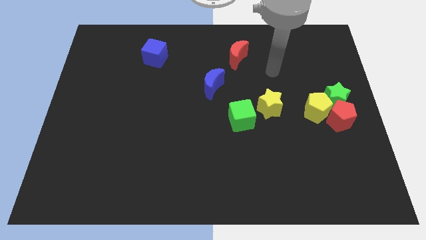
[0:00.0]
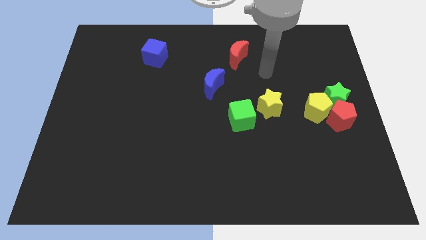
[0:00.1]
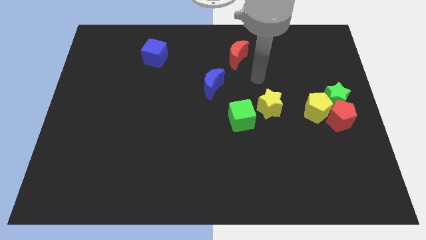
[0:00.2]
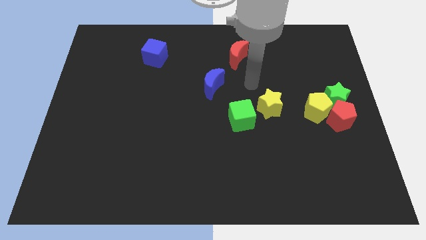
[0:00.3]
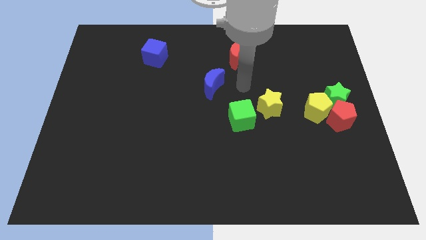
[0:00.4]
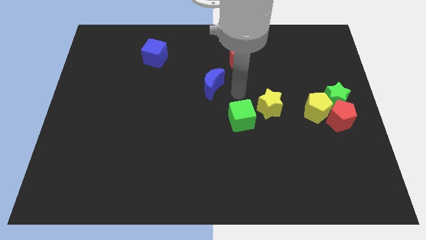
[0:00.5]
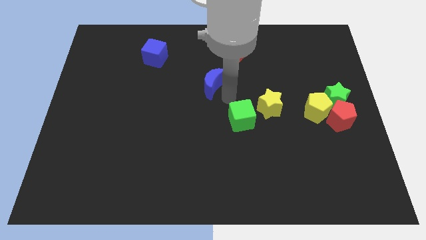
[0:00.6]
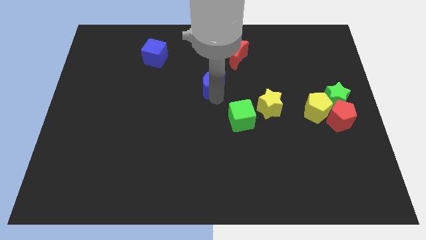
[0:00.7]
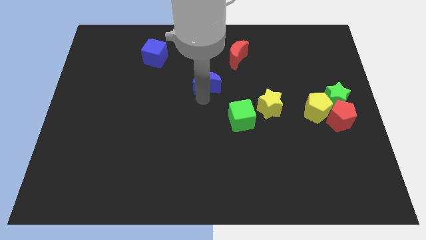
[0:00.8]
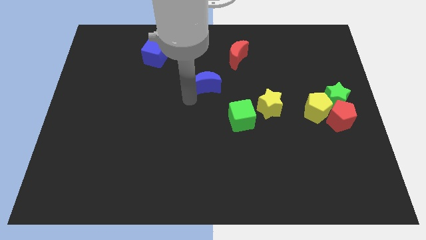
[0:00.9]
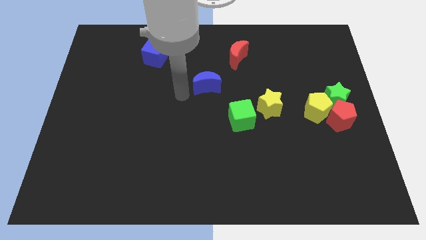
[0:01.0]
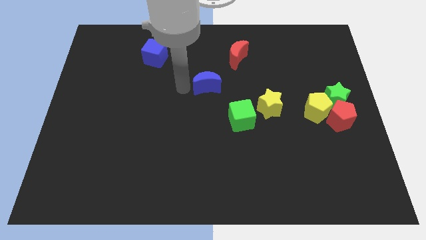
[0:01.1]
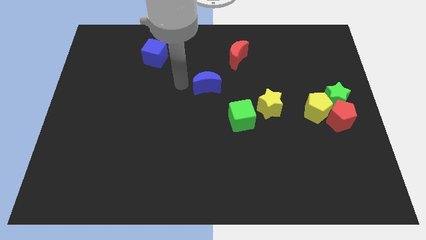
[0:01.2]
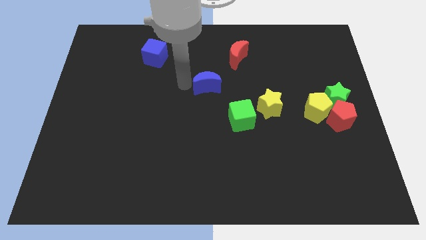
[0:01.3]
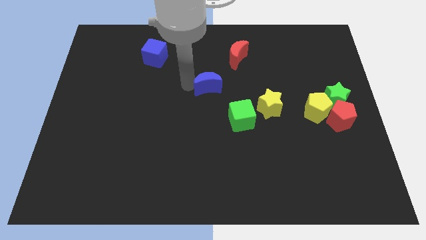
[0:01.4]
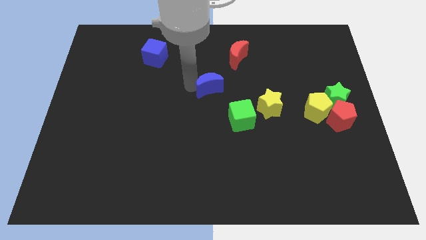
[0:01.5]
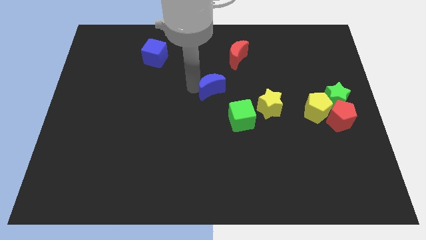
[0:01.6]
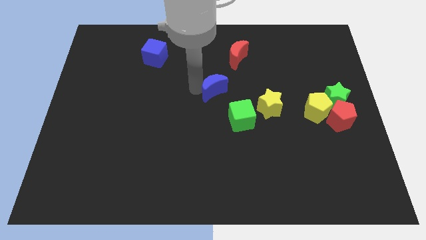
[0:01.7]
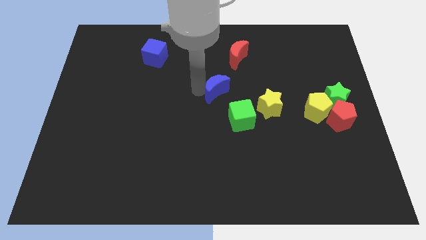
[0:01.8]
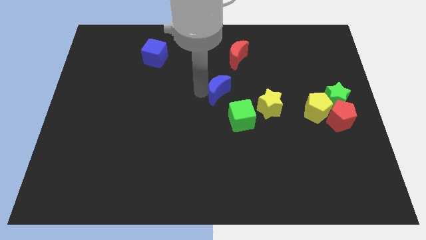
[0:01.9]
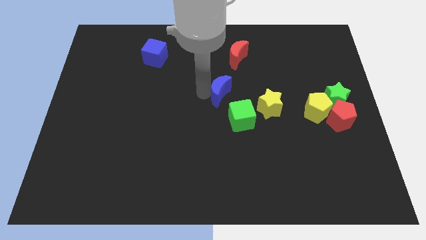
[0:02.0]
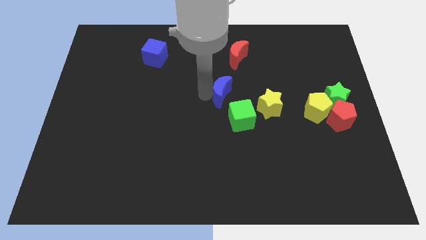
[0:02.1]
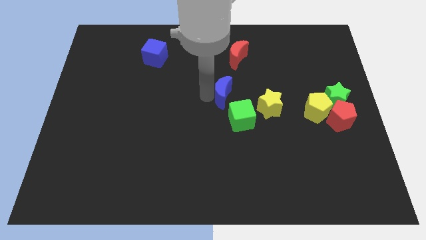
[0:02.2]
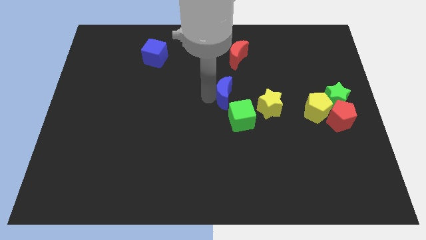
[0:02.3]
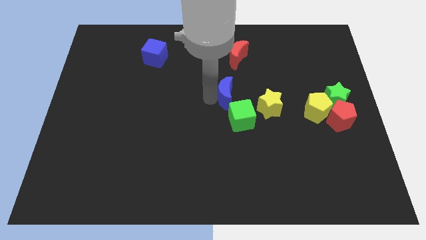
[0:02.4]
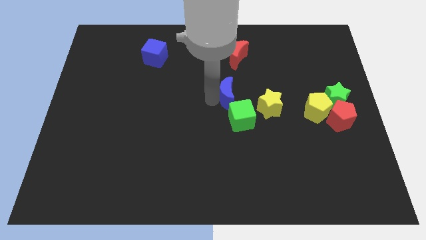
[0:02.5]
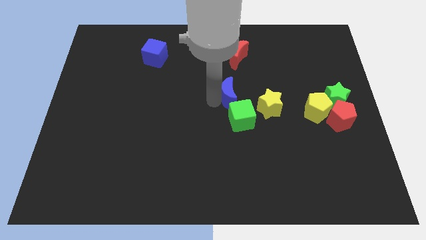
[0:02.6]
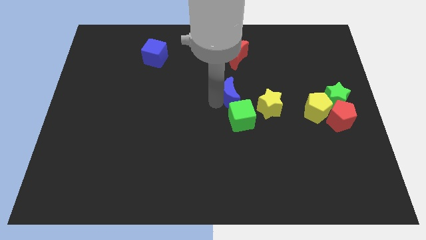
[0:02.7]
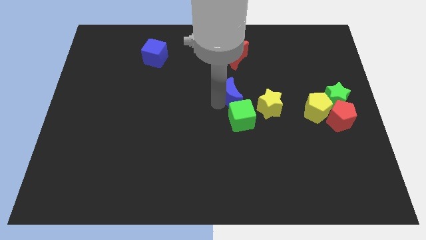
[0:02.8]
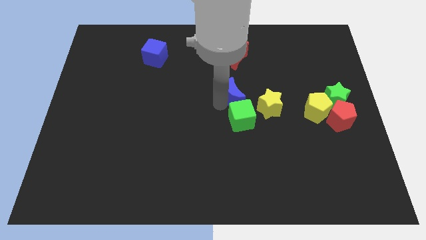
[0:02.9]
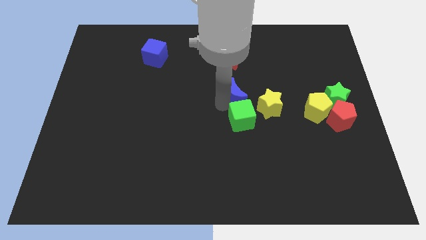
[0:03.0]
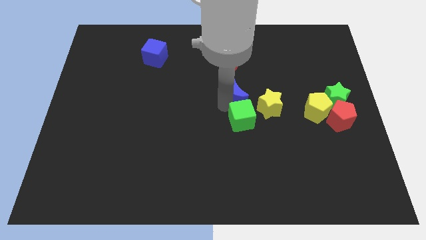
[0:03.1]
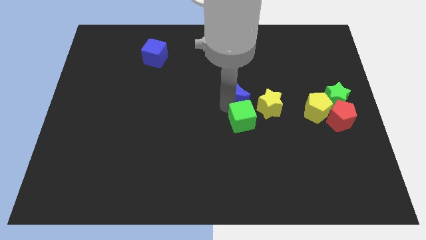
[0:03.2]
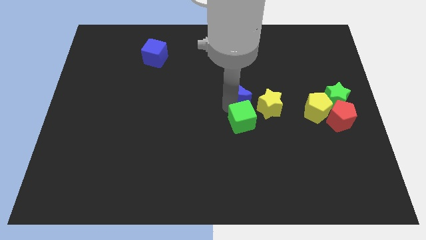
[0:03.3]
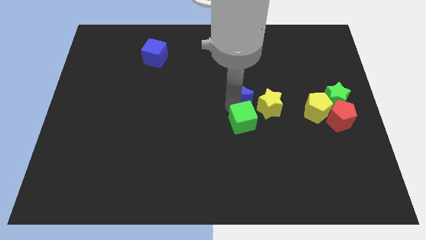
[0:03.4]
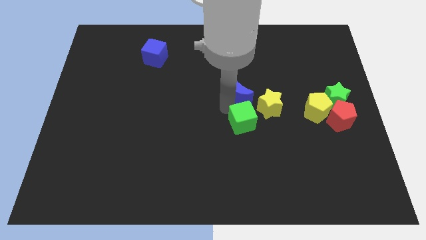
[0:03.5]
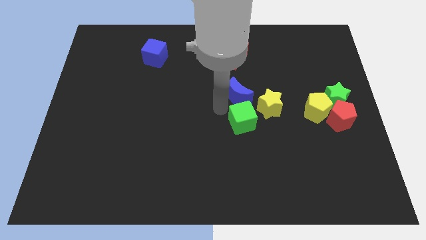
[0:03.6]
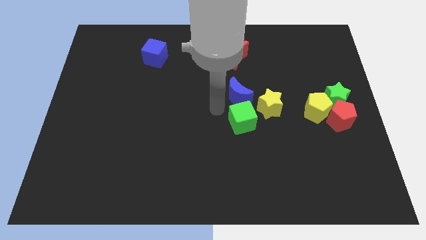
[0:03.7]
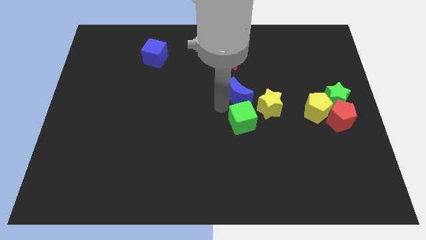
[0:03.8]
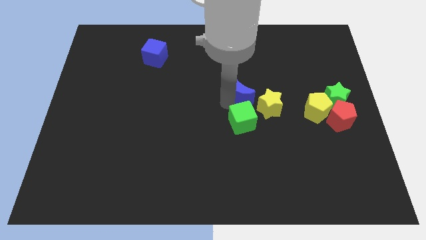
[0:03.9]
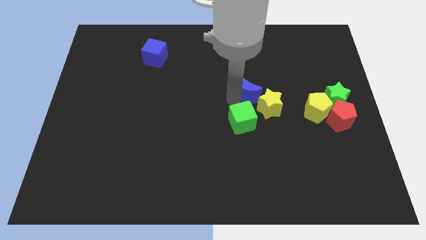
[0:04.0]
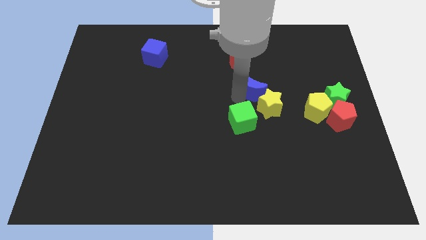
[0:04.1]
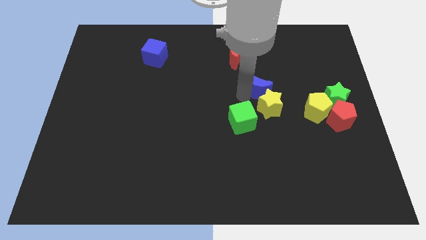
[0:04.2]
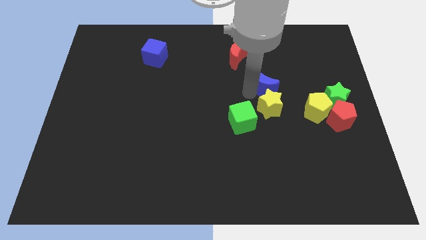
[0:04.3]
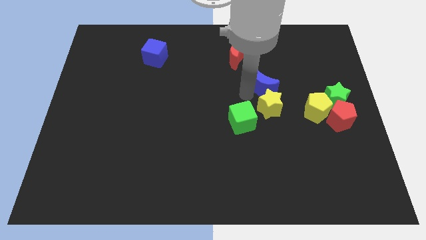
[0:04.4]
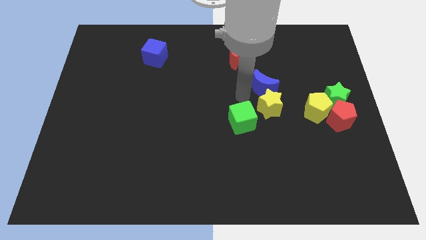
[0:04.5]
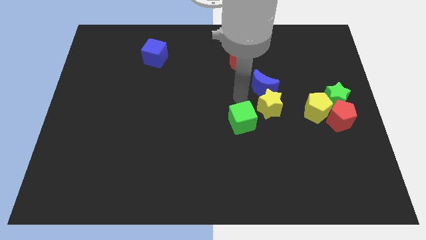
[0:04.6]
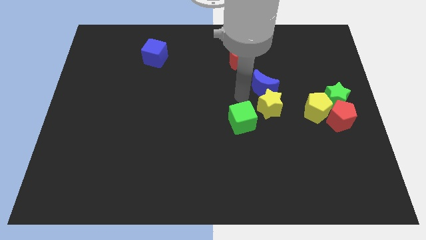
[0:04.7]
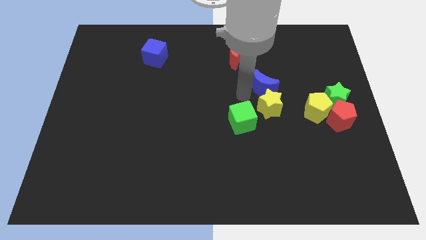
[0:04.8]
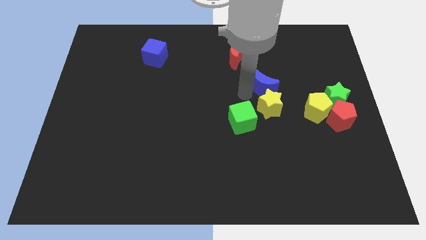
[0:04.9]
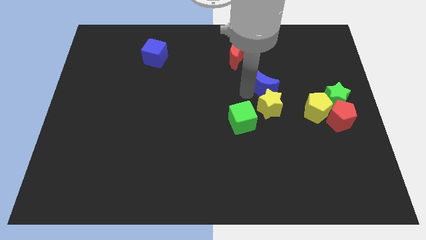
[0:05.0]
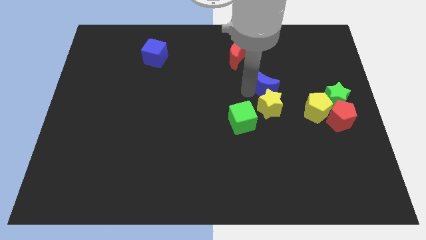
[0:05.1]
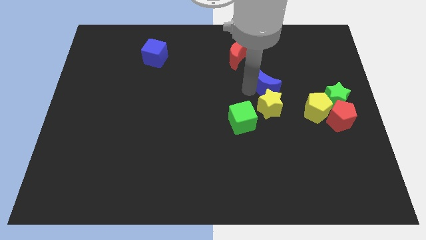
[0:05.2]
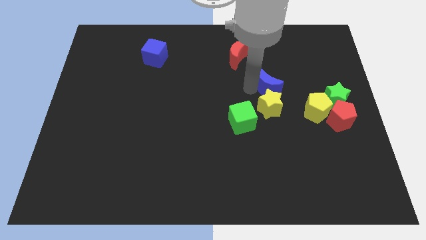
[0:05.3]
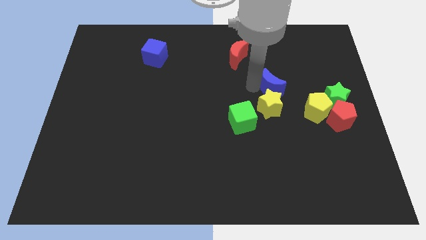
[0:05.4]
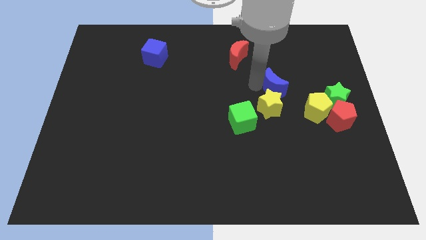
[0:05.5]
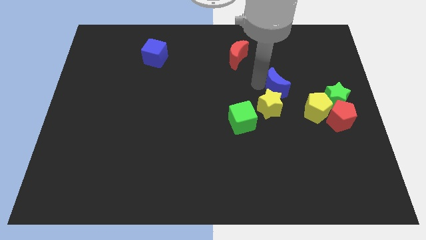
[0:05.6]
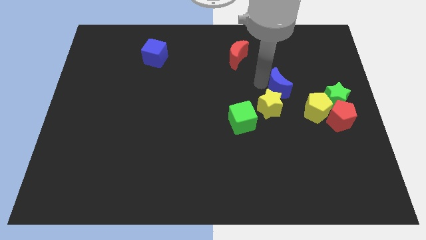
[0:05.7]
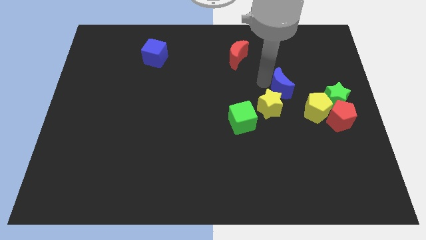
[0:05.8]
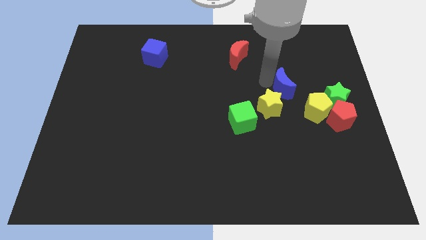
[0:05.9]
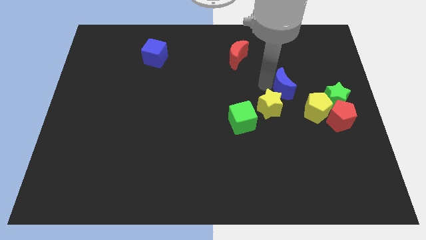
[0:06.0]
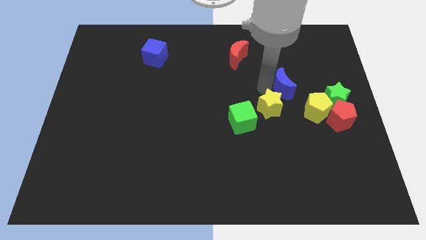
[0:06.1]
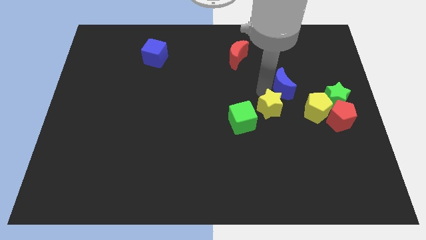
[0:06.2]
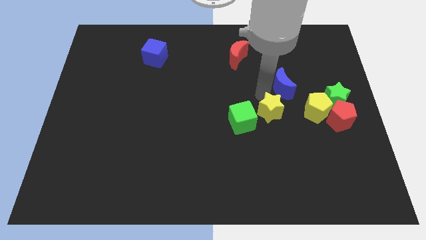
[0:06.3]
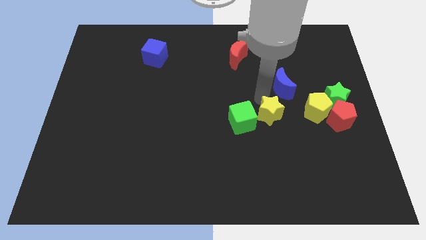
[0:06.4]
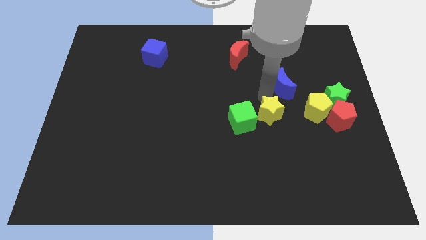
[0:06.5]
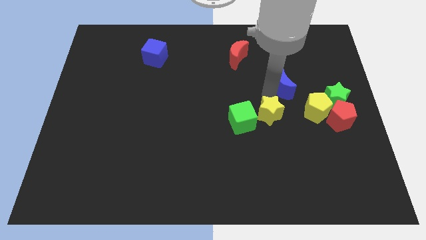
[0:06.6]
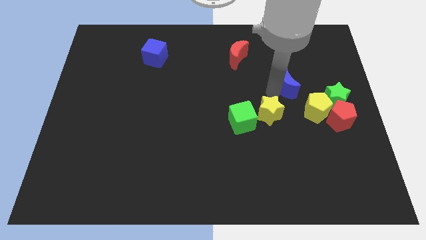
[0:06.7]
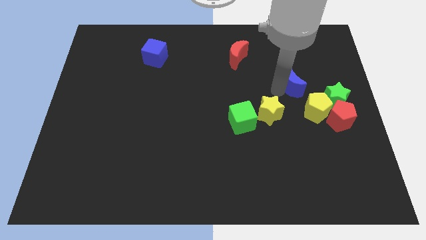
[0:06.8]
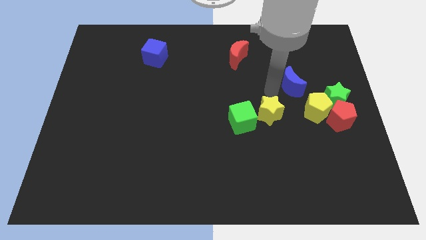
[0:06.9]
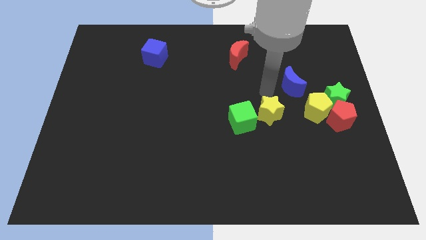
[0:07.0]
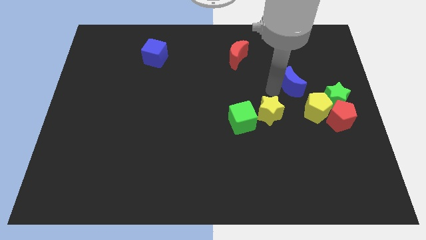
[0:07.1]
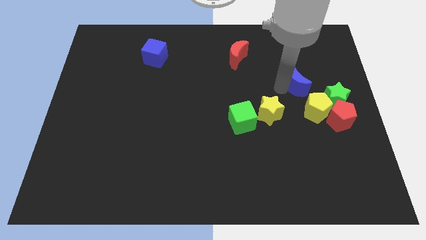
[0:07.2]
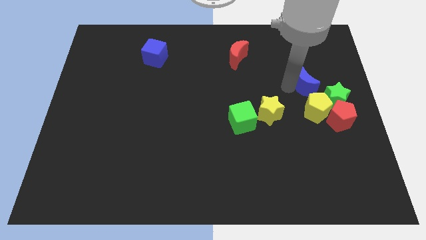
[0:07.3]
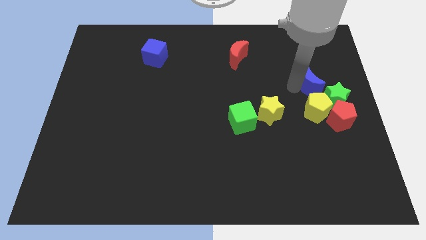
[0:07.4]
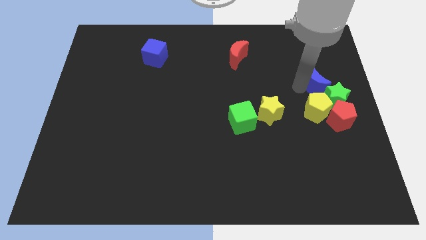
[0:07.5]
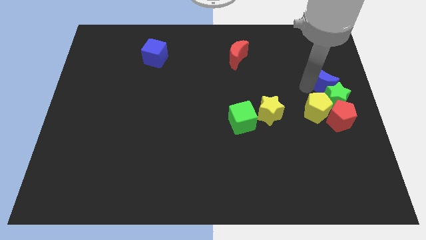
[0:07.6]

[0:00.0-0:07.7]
put the blue moon to the right side
